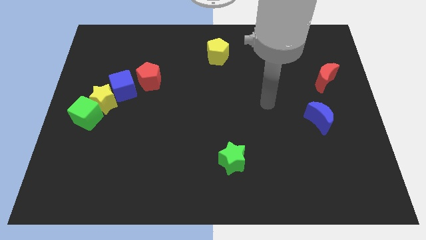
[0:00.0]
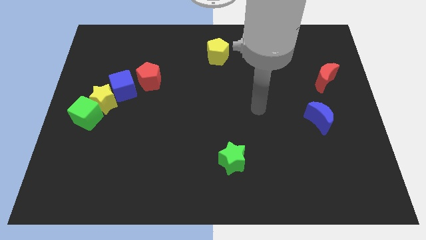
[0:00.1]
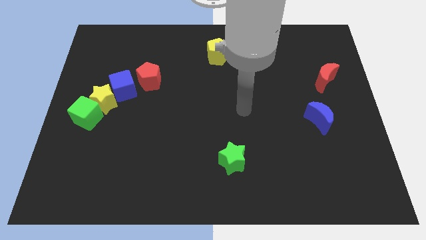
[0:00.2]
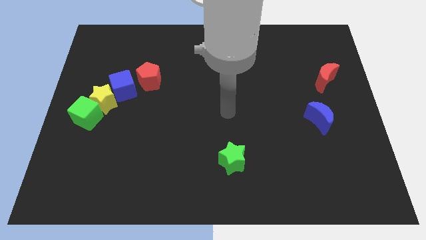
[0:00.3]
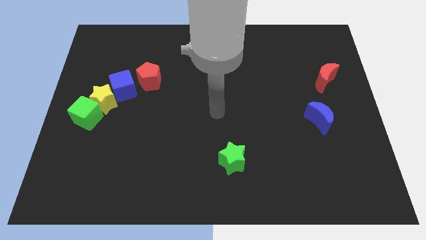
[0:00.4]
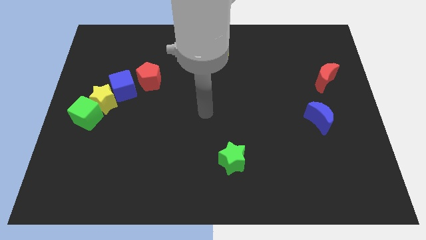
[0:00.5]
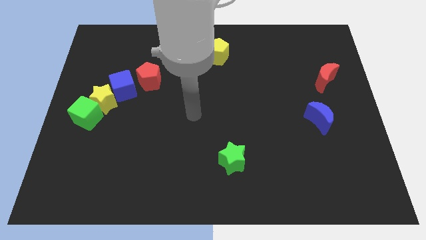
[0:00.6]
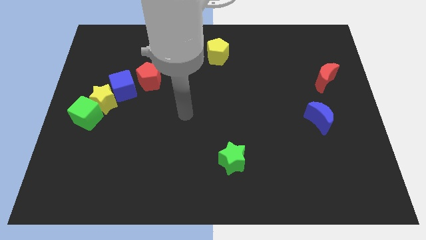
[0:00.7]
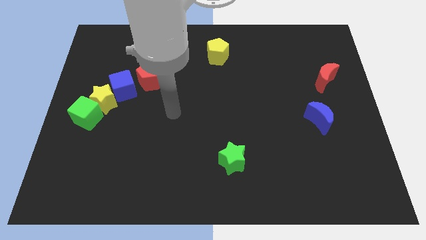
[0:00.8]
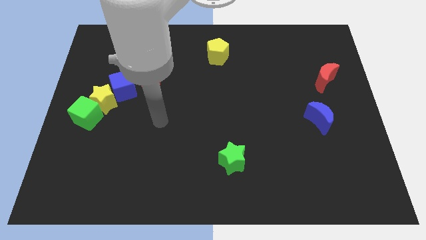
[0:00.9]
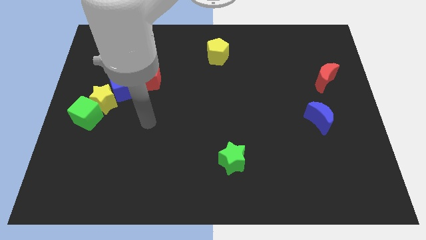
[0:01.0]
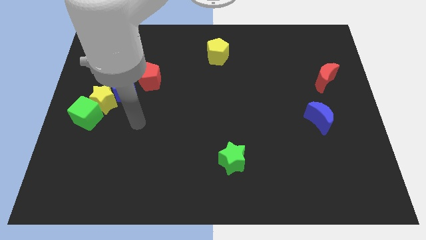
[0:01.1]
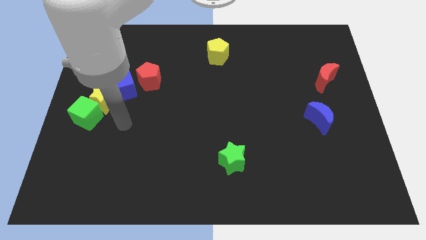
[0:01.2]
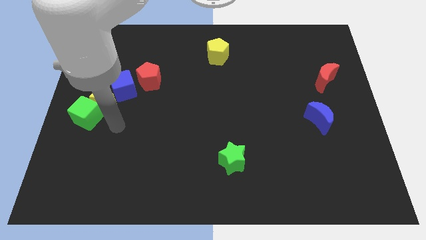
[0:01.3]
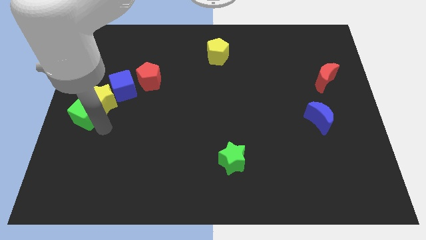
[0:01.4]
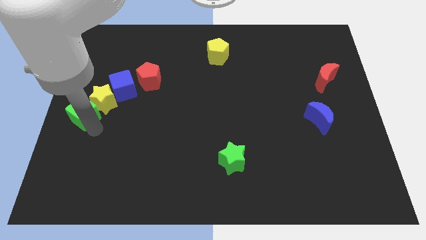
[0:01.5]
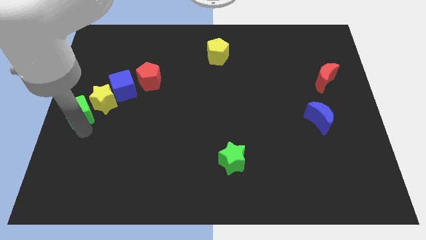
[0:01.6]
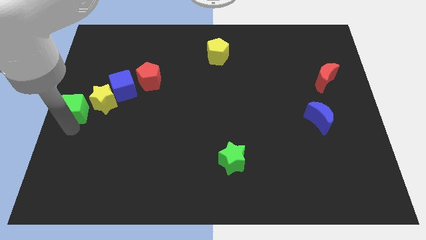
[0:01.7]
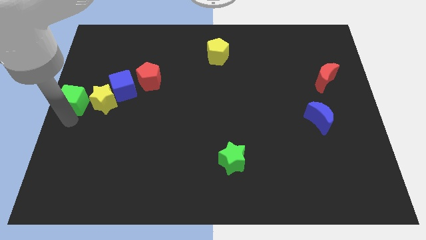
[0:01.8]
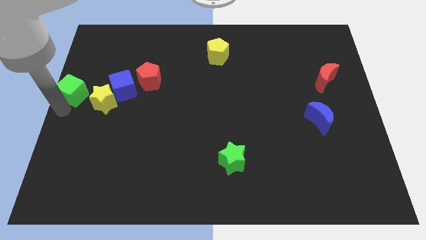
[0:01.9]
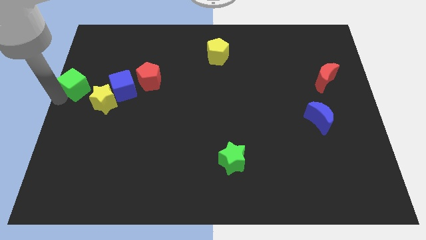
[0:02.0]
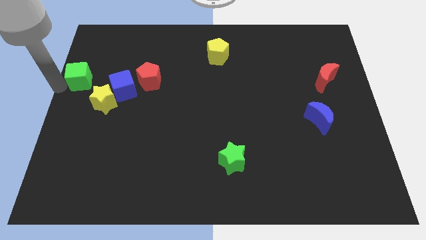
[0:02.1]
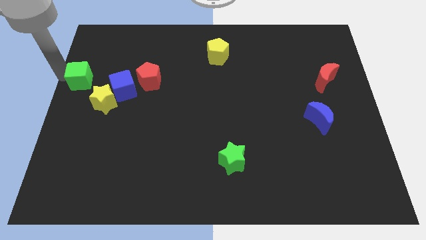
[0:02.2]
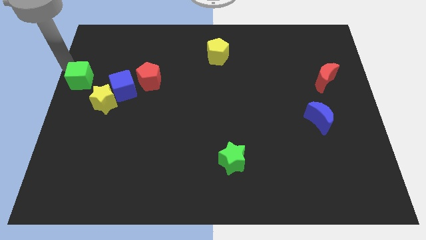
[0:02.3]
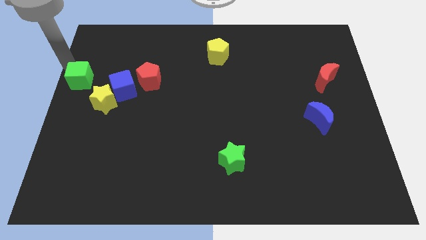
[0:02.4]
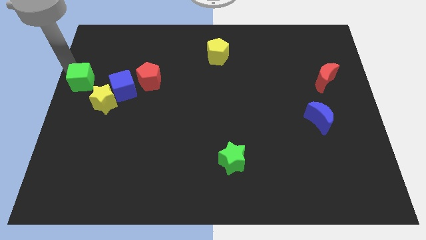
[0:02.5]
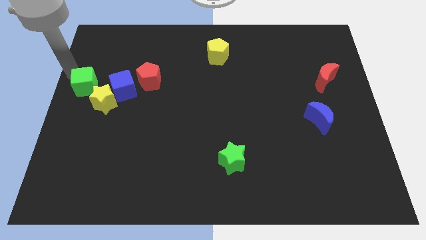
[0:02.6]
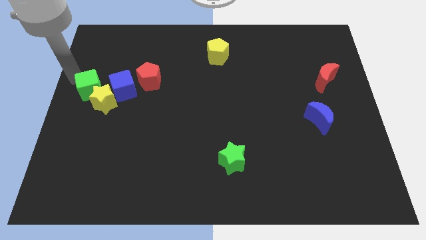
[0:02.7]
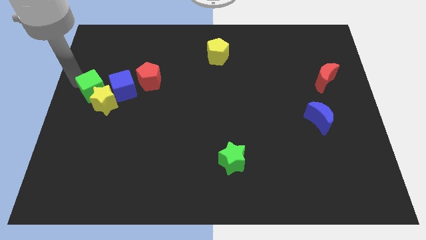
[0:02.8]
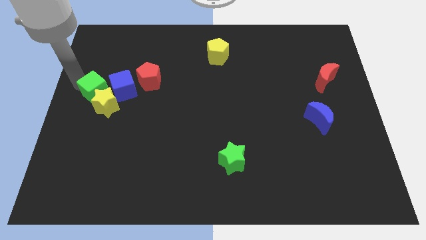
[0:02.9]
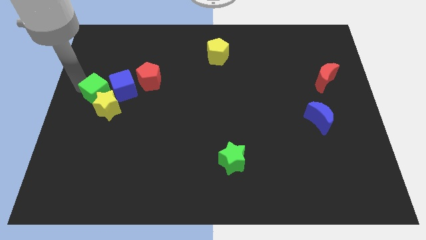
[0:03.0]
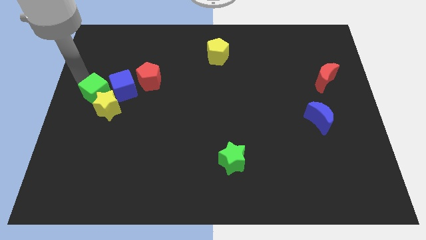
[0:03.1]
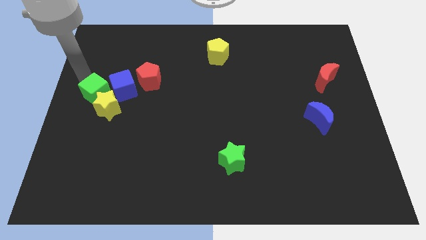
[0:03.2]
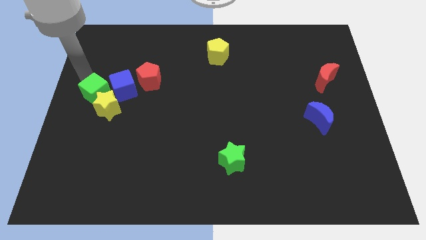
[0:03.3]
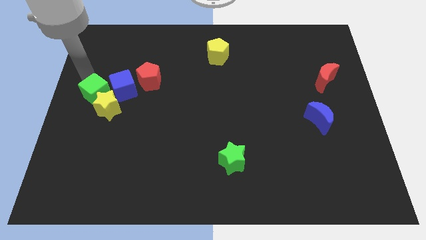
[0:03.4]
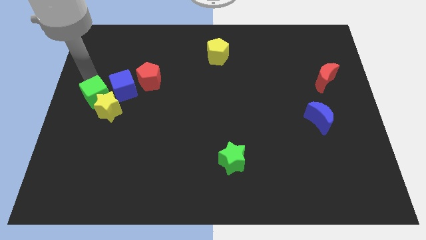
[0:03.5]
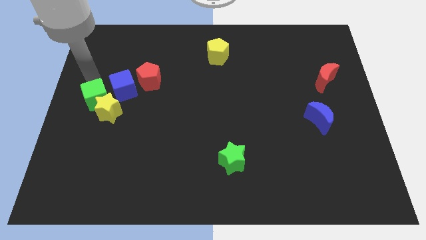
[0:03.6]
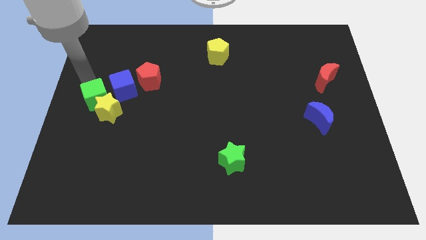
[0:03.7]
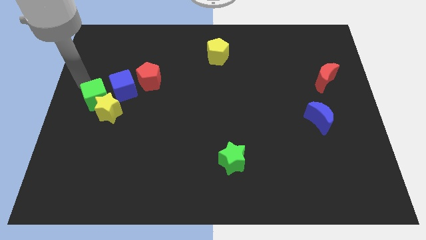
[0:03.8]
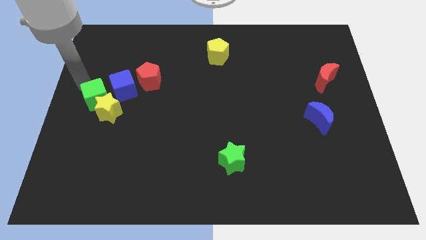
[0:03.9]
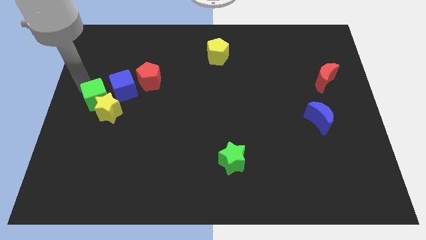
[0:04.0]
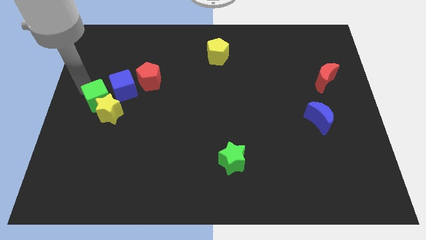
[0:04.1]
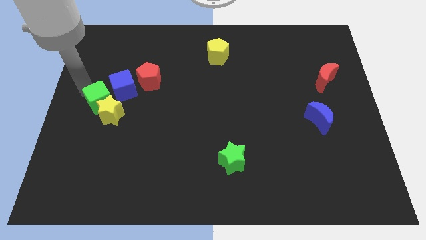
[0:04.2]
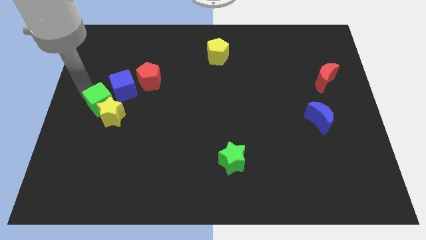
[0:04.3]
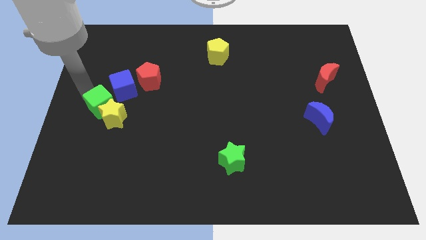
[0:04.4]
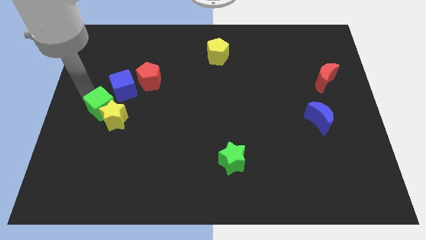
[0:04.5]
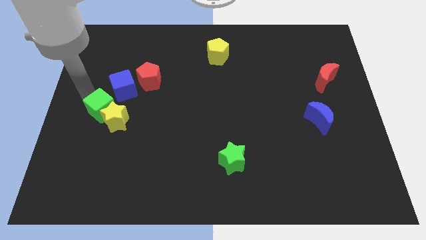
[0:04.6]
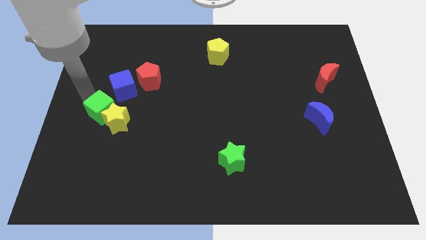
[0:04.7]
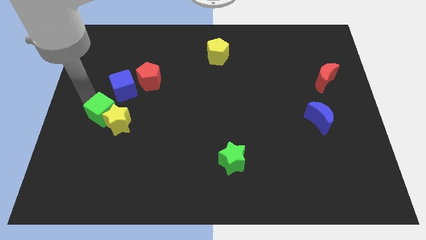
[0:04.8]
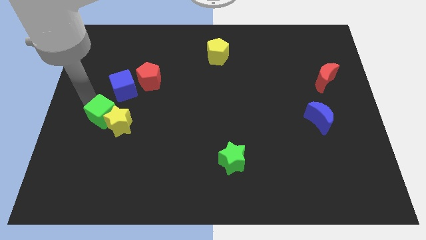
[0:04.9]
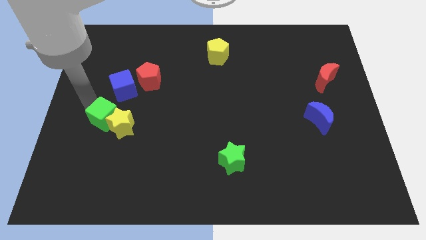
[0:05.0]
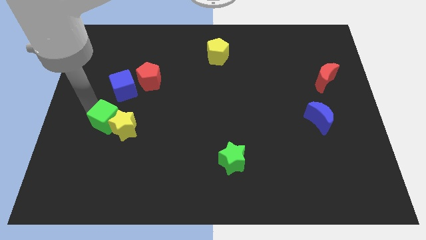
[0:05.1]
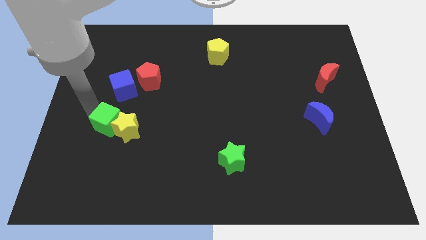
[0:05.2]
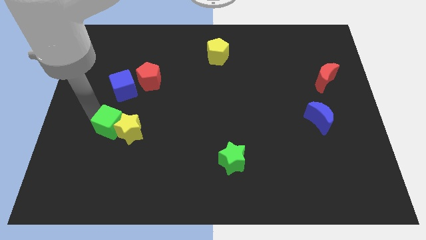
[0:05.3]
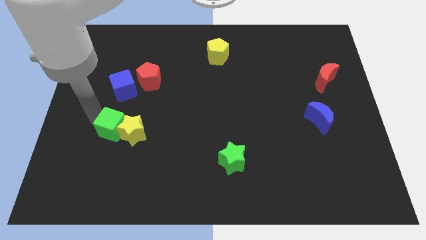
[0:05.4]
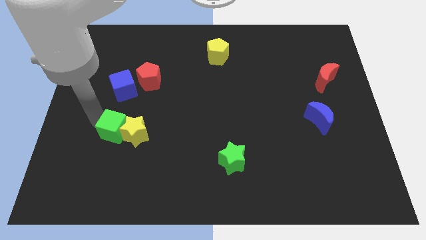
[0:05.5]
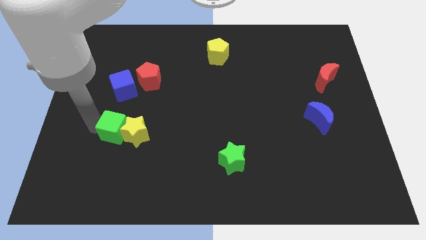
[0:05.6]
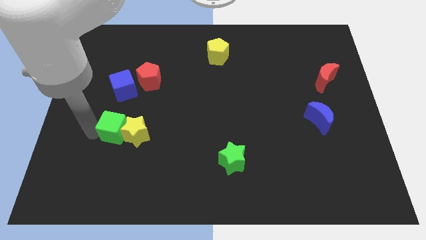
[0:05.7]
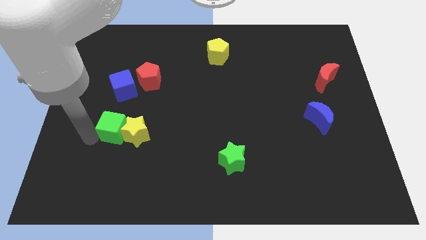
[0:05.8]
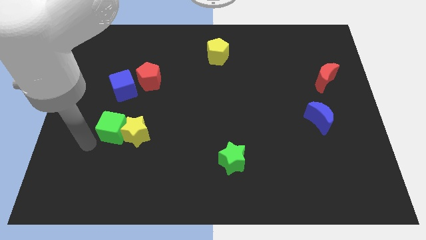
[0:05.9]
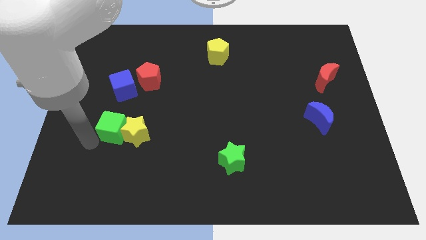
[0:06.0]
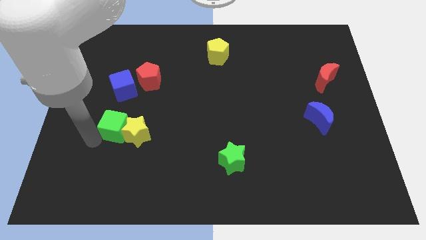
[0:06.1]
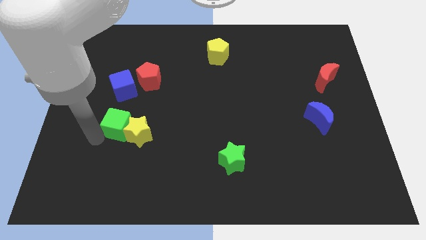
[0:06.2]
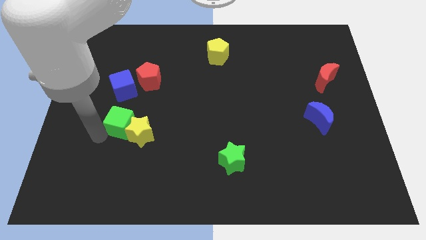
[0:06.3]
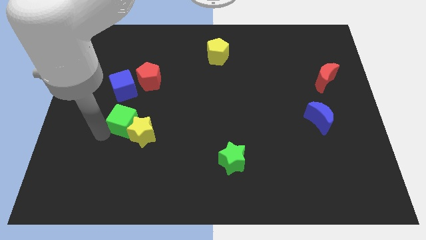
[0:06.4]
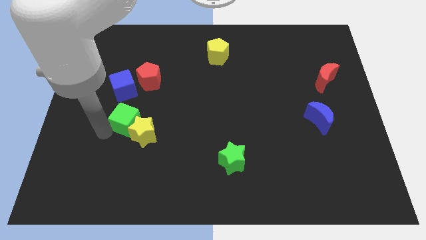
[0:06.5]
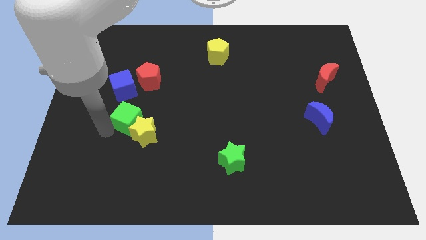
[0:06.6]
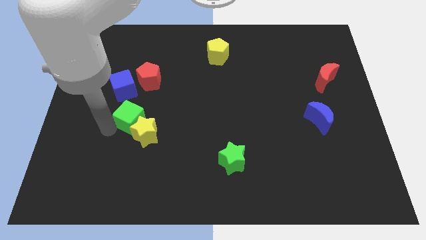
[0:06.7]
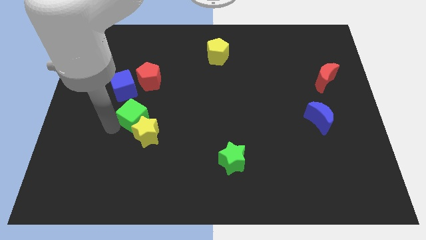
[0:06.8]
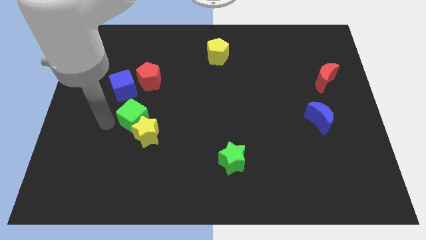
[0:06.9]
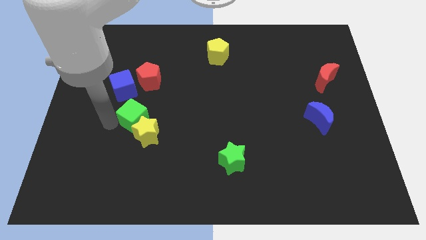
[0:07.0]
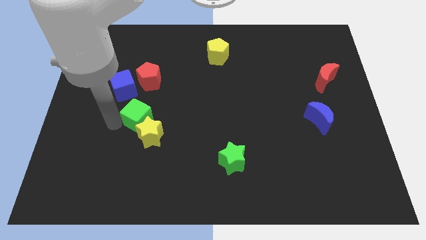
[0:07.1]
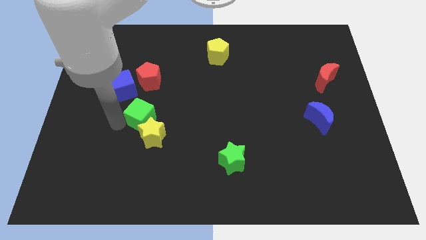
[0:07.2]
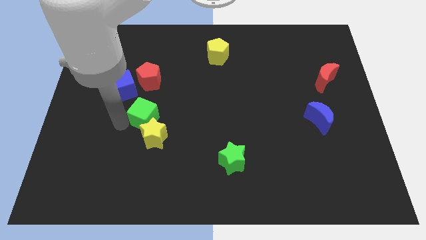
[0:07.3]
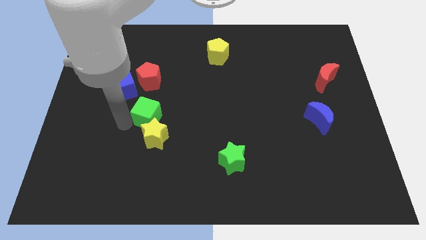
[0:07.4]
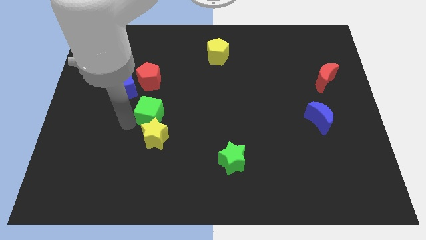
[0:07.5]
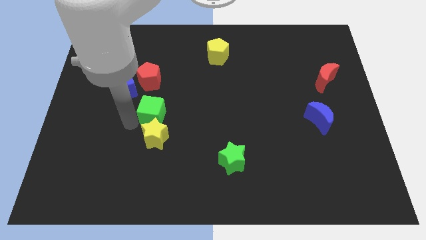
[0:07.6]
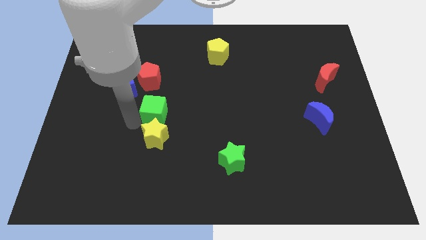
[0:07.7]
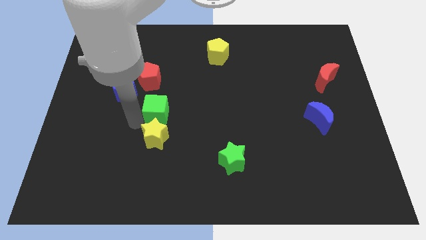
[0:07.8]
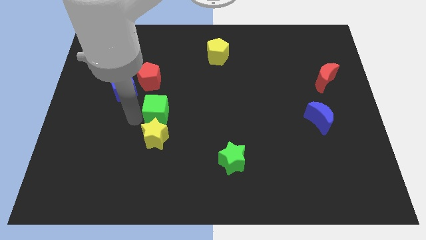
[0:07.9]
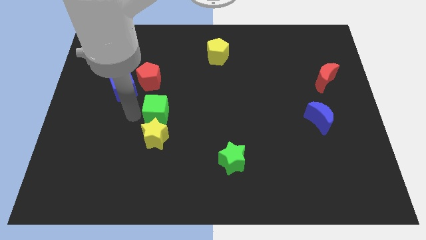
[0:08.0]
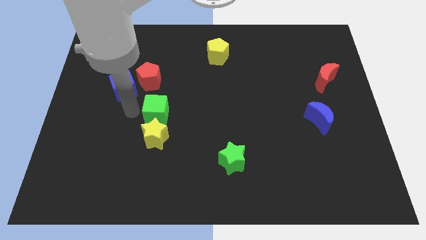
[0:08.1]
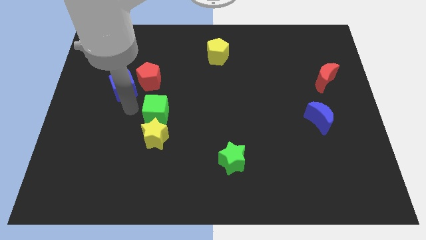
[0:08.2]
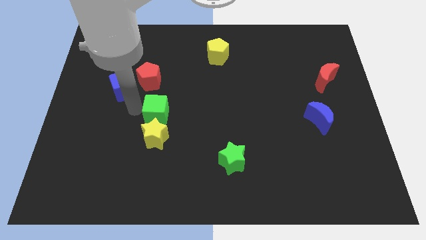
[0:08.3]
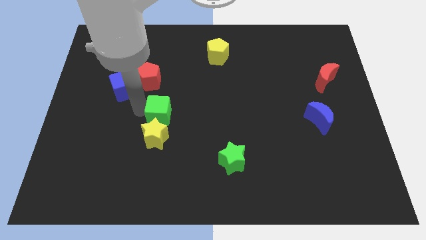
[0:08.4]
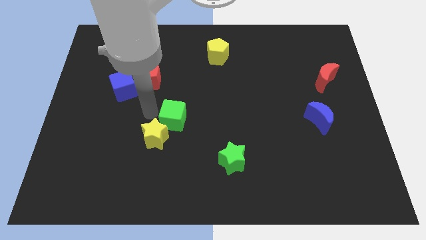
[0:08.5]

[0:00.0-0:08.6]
slide the green cube right
